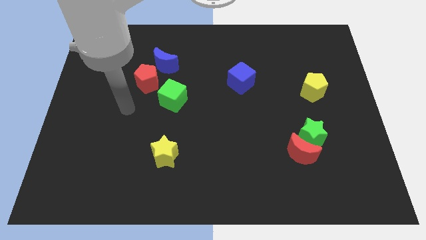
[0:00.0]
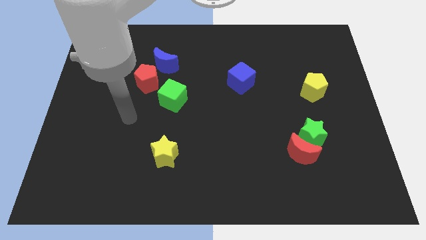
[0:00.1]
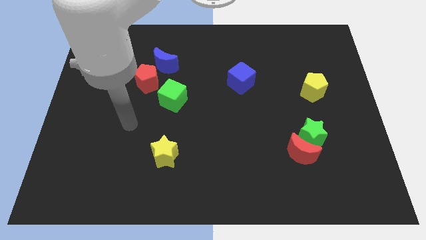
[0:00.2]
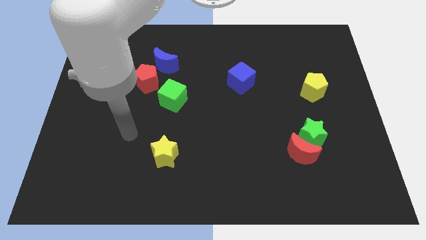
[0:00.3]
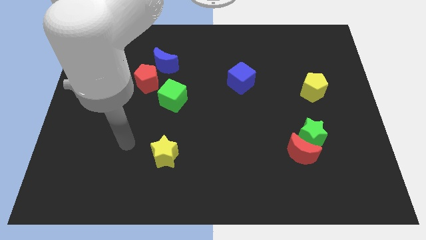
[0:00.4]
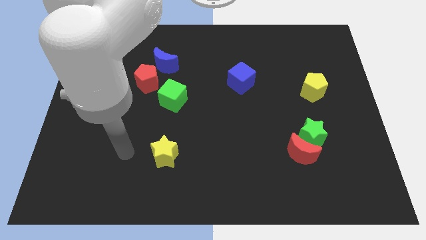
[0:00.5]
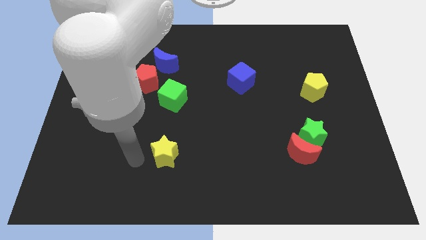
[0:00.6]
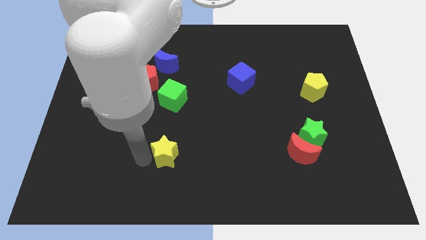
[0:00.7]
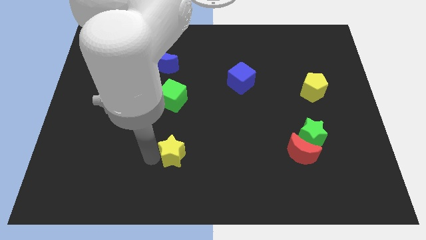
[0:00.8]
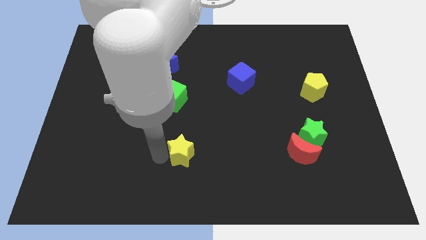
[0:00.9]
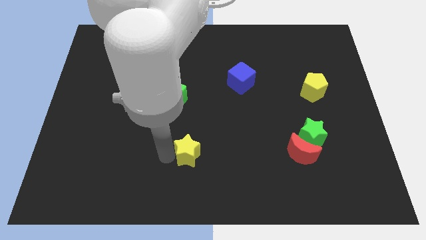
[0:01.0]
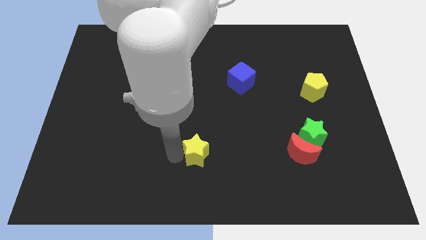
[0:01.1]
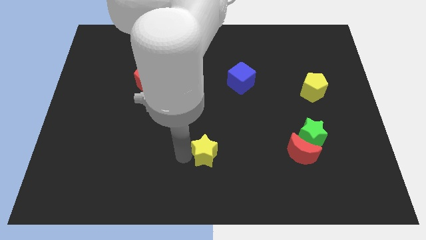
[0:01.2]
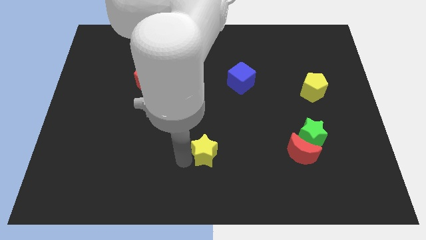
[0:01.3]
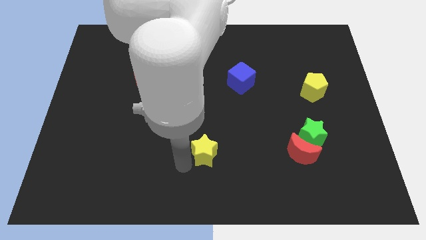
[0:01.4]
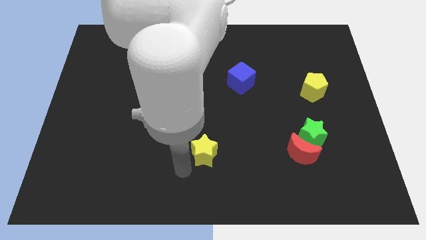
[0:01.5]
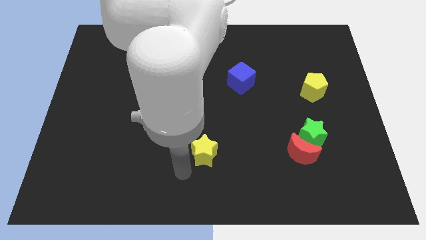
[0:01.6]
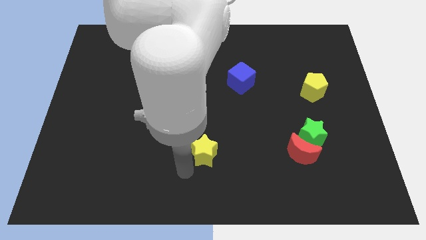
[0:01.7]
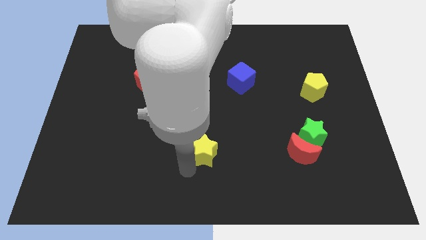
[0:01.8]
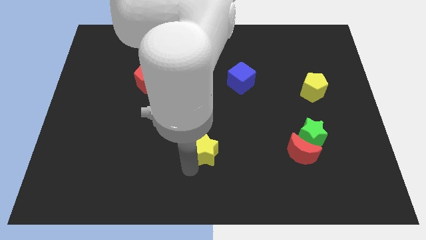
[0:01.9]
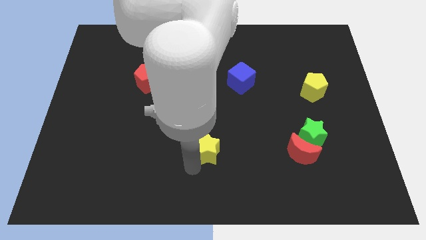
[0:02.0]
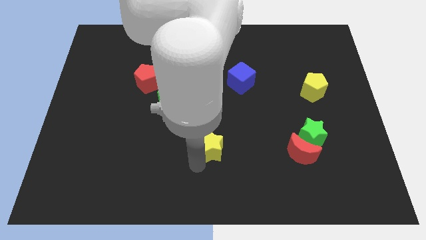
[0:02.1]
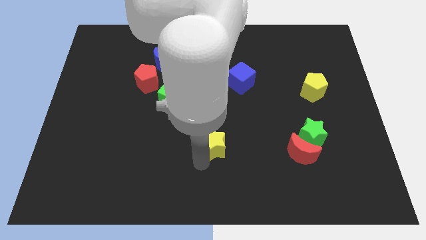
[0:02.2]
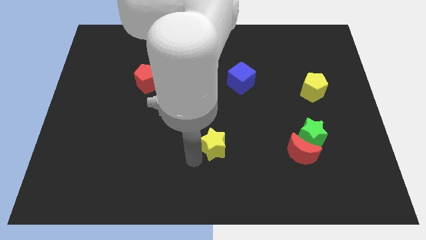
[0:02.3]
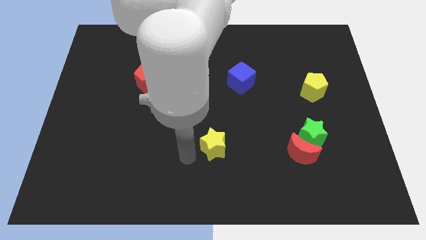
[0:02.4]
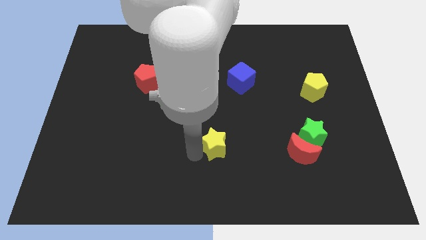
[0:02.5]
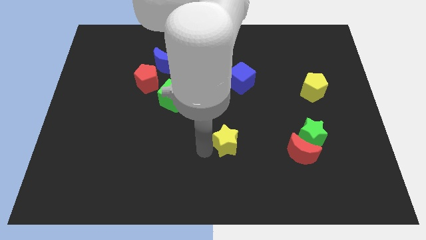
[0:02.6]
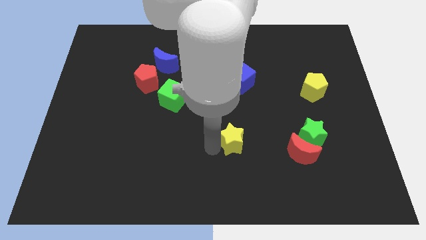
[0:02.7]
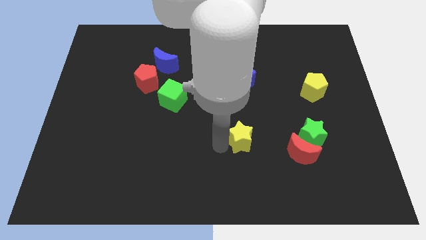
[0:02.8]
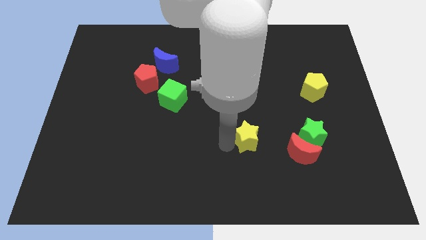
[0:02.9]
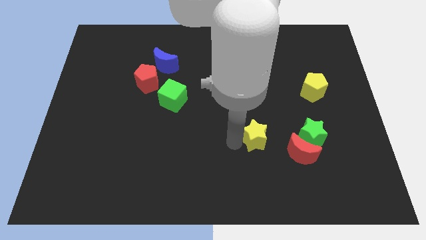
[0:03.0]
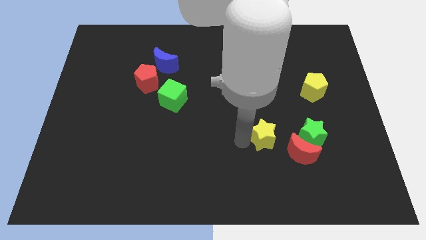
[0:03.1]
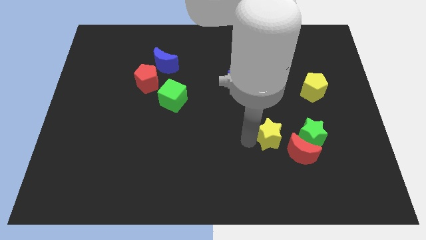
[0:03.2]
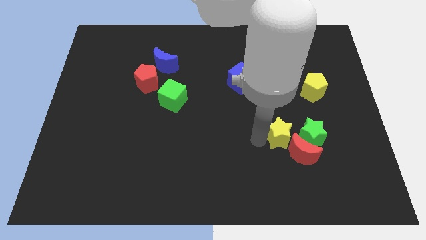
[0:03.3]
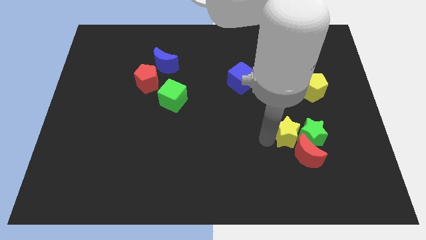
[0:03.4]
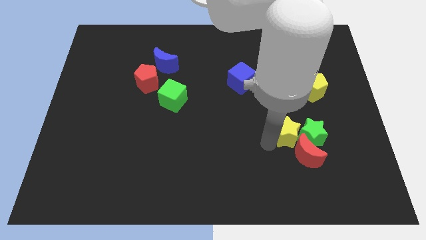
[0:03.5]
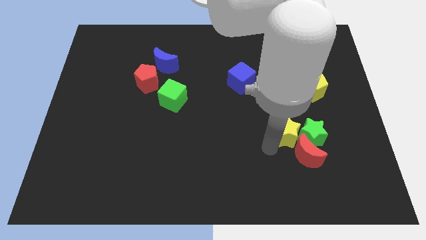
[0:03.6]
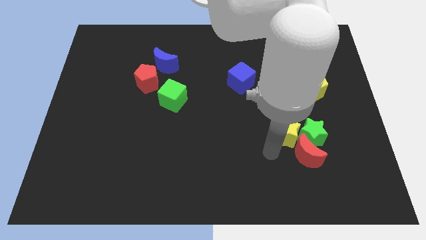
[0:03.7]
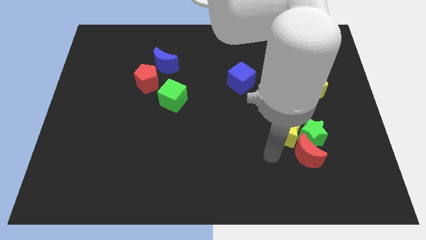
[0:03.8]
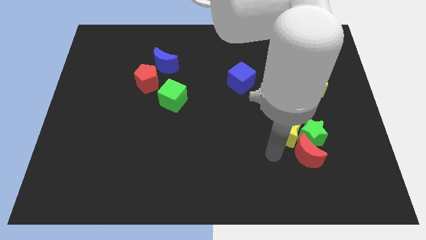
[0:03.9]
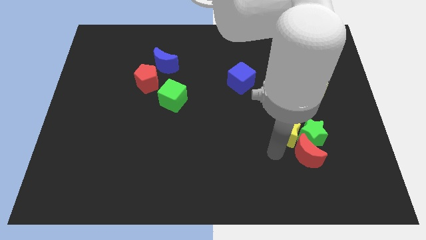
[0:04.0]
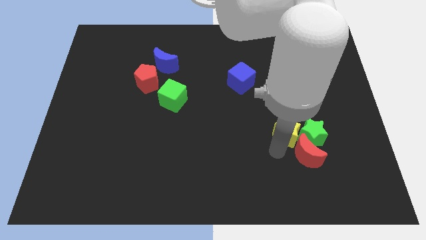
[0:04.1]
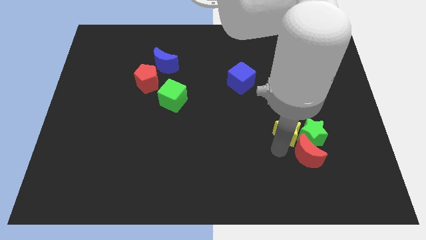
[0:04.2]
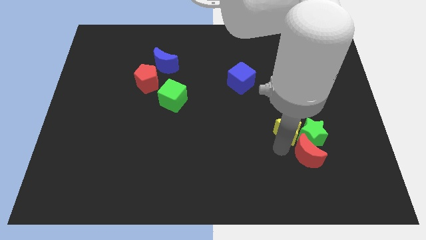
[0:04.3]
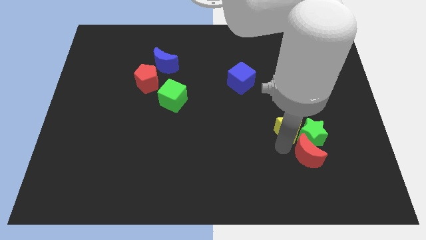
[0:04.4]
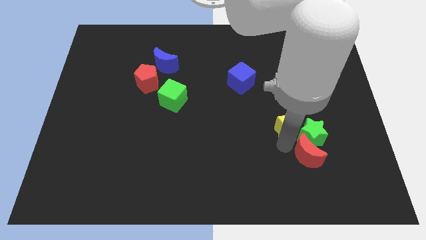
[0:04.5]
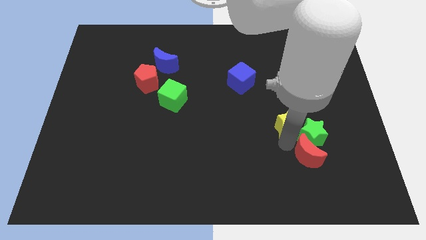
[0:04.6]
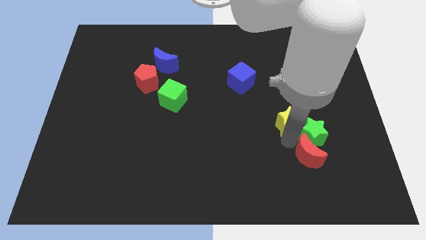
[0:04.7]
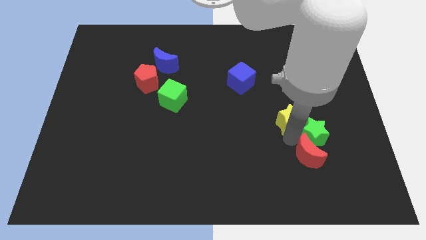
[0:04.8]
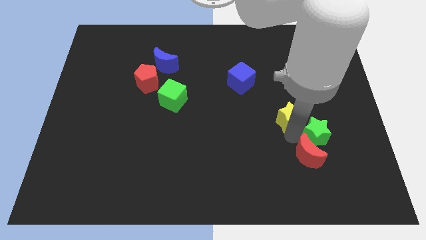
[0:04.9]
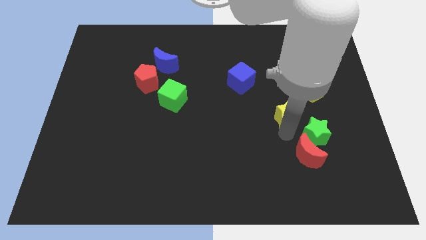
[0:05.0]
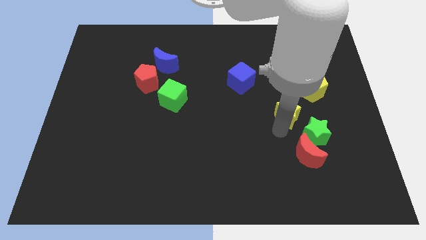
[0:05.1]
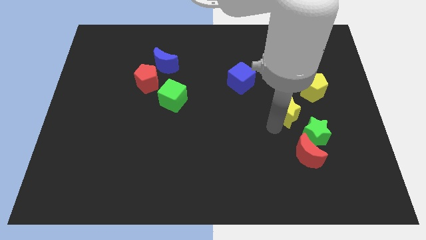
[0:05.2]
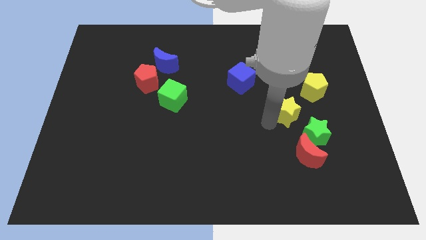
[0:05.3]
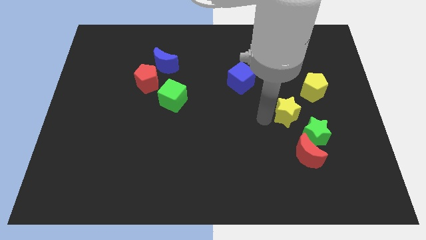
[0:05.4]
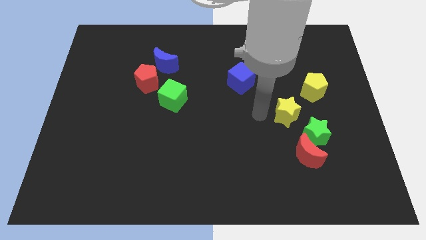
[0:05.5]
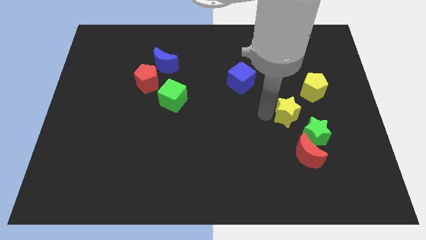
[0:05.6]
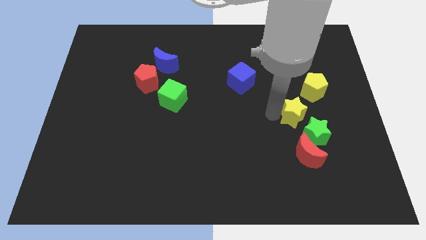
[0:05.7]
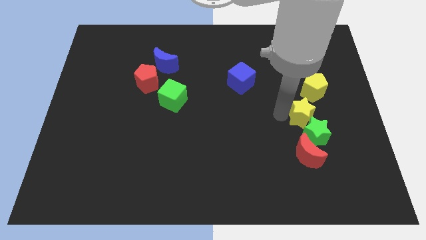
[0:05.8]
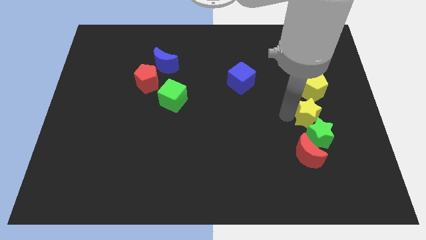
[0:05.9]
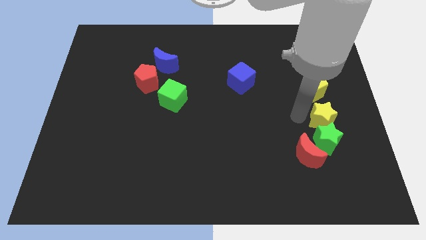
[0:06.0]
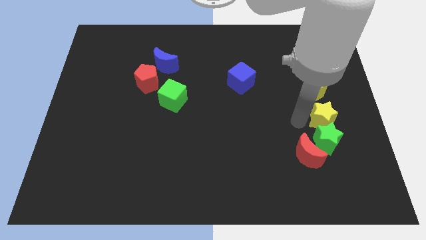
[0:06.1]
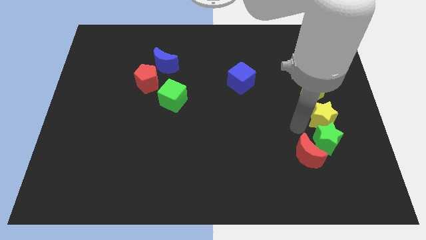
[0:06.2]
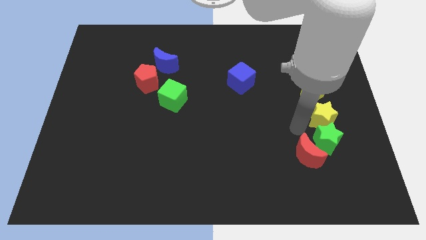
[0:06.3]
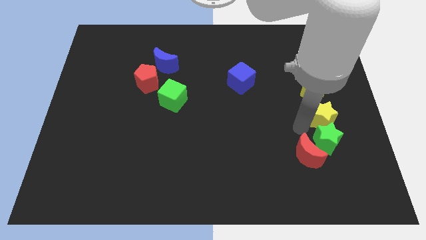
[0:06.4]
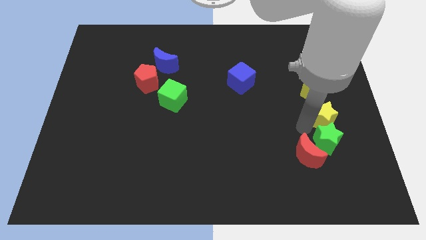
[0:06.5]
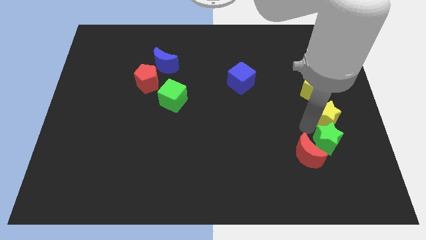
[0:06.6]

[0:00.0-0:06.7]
slide the yellow star to the right side

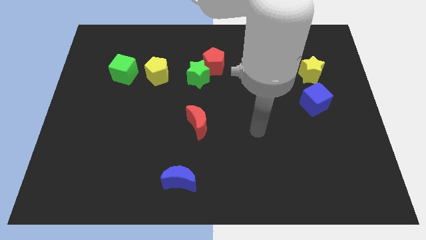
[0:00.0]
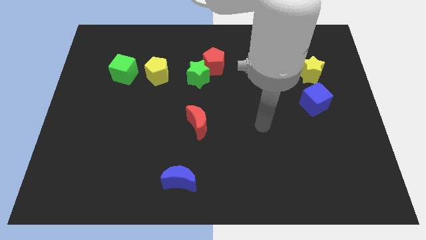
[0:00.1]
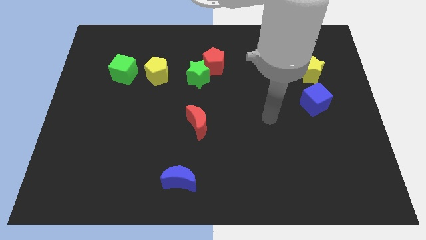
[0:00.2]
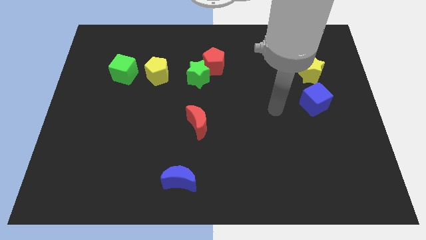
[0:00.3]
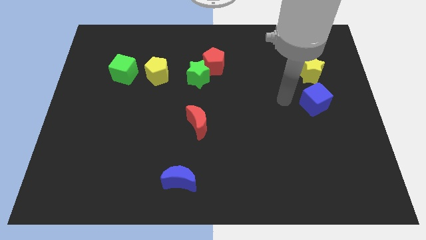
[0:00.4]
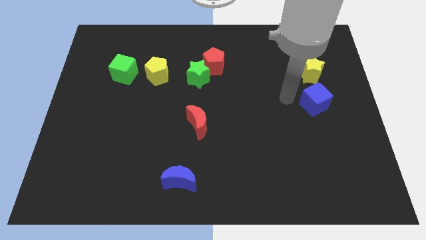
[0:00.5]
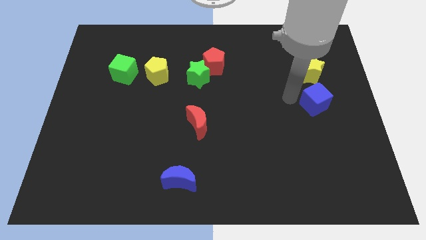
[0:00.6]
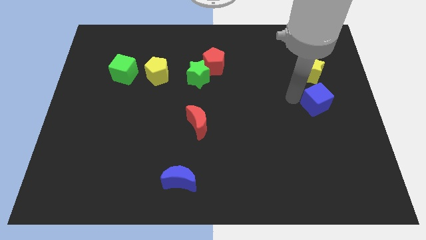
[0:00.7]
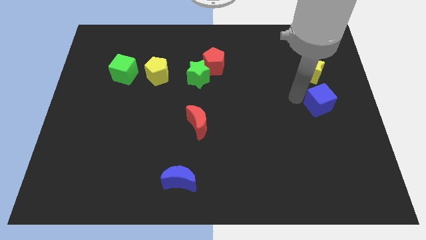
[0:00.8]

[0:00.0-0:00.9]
put the blue cube to the right side
